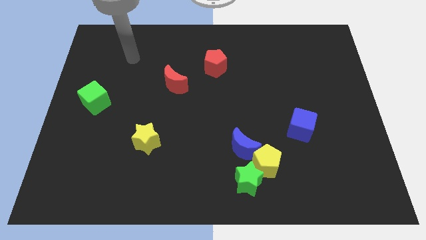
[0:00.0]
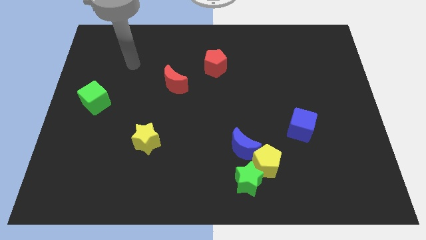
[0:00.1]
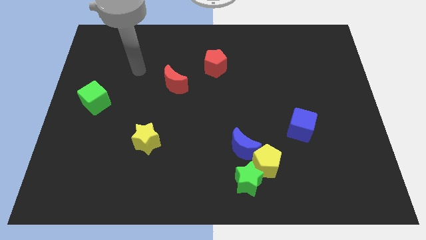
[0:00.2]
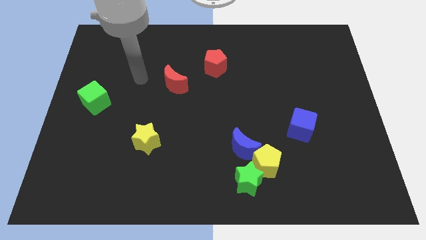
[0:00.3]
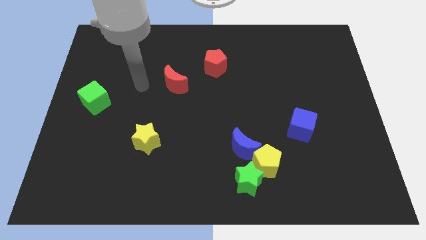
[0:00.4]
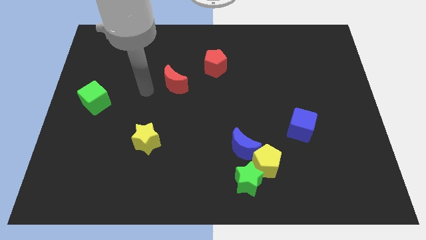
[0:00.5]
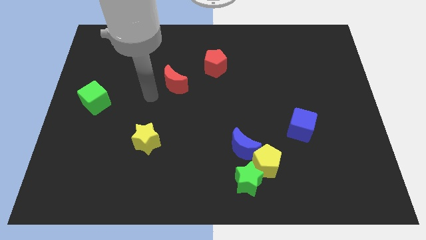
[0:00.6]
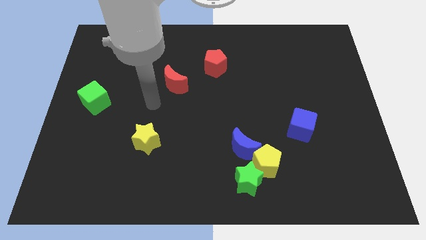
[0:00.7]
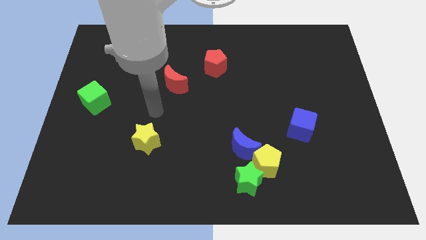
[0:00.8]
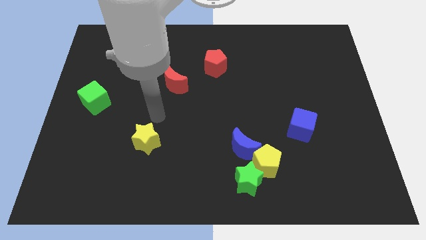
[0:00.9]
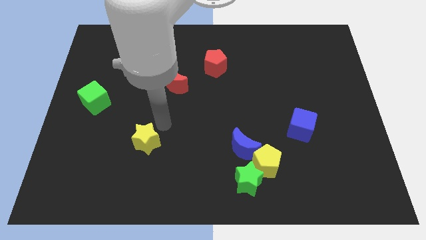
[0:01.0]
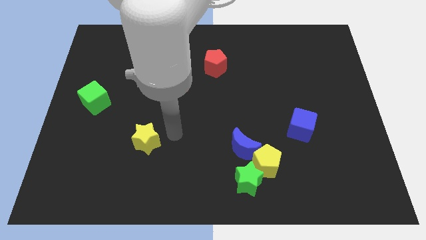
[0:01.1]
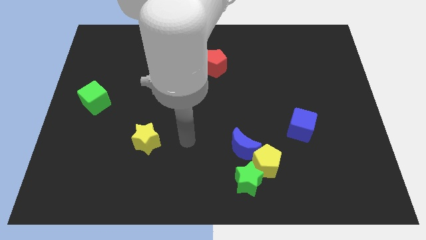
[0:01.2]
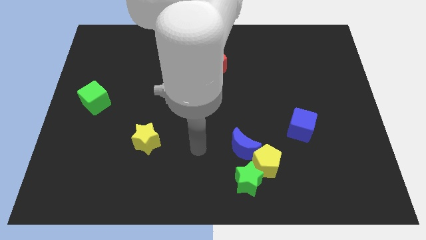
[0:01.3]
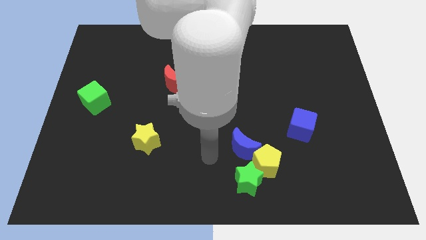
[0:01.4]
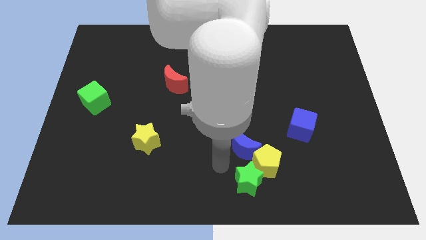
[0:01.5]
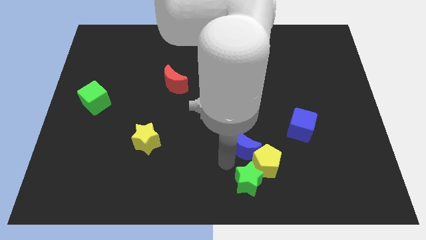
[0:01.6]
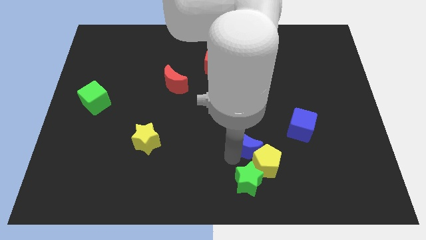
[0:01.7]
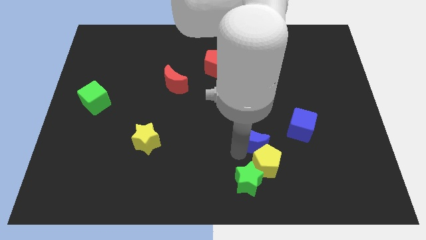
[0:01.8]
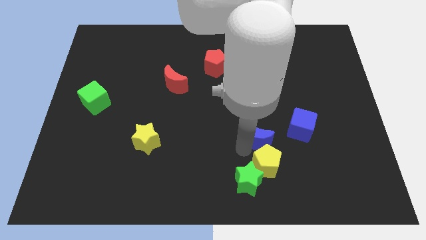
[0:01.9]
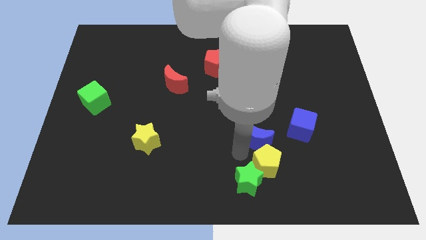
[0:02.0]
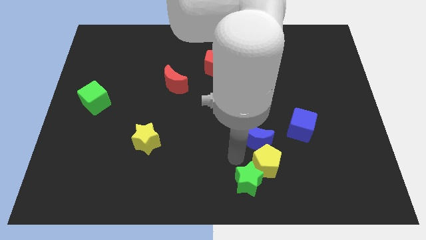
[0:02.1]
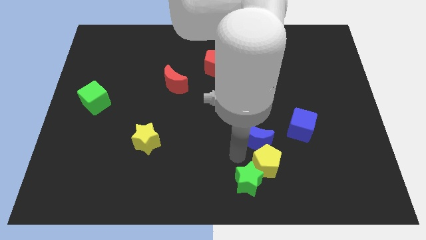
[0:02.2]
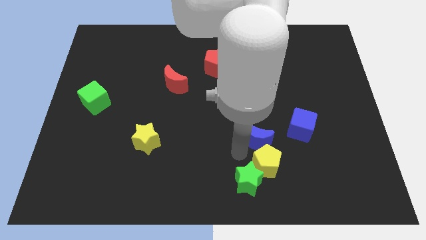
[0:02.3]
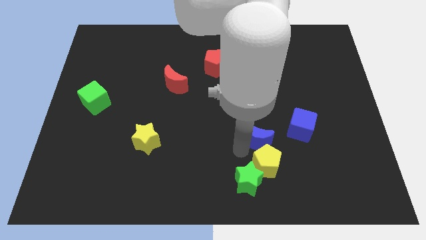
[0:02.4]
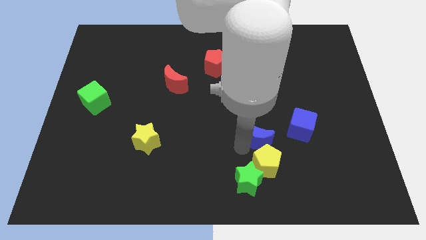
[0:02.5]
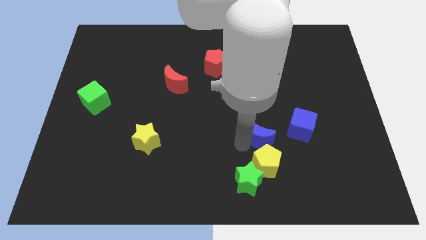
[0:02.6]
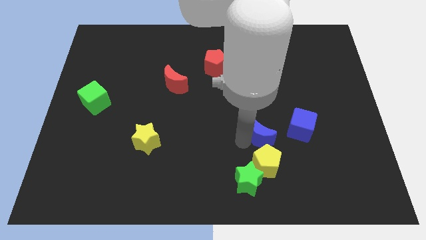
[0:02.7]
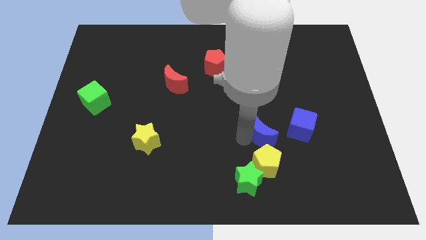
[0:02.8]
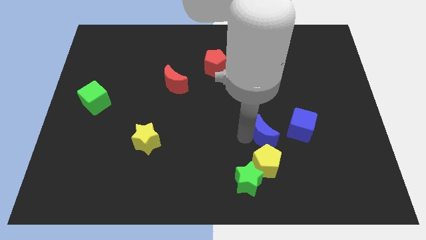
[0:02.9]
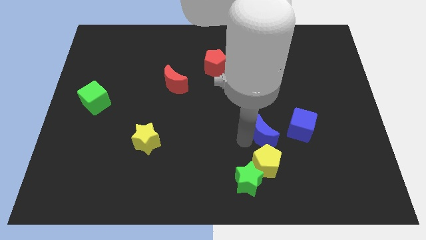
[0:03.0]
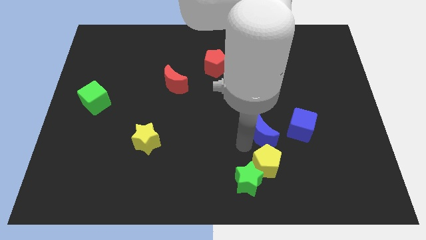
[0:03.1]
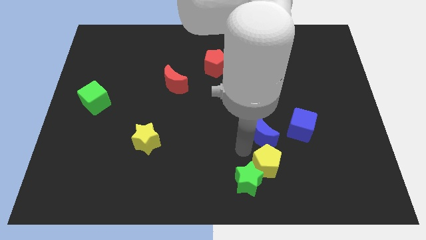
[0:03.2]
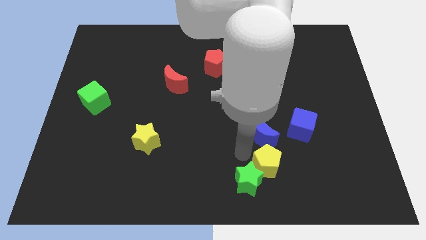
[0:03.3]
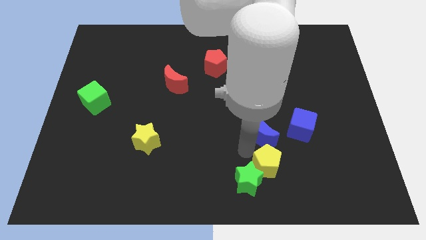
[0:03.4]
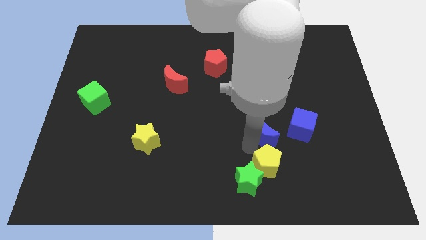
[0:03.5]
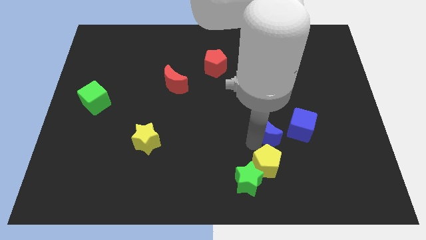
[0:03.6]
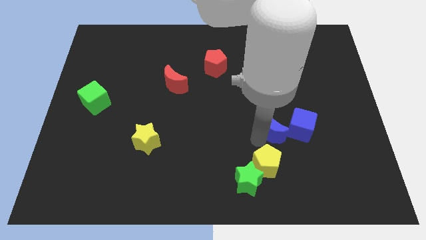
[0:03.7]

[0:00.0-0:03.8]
slide the blue moon diagonally upwards and right a bit

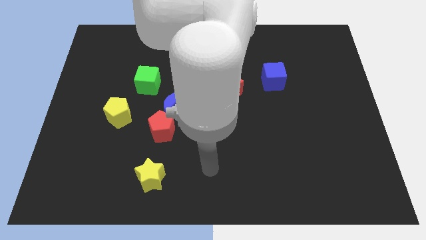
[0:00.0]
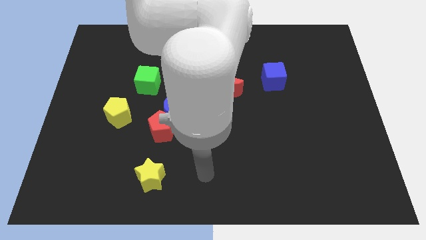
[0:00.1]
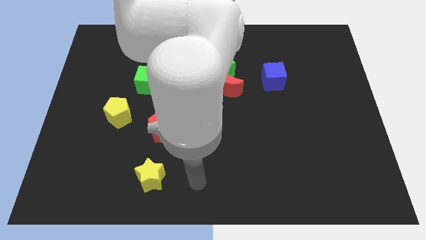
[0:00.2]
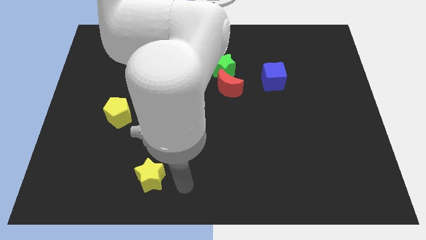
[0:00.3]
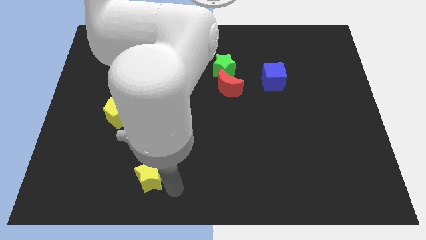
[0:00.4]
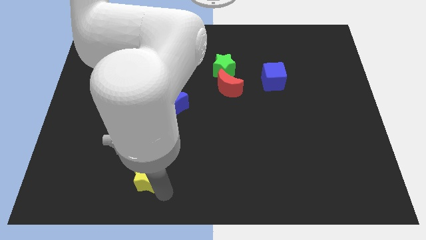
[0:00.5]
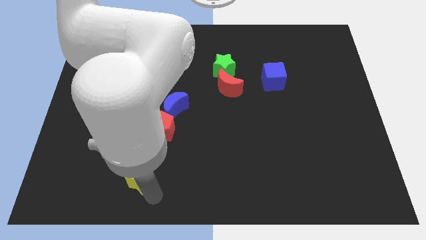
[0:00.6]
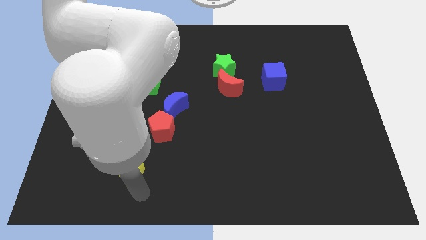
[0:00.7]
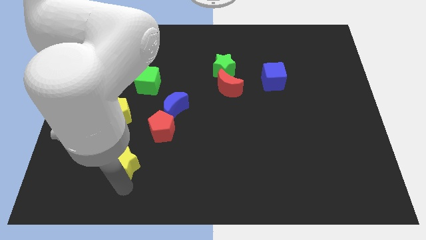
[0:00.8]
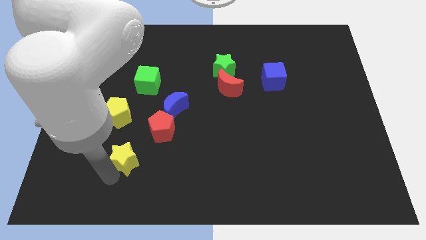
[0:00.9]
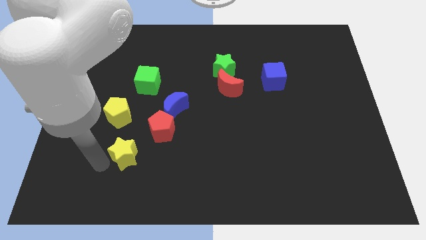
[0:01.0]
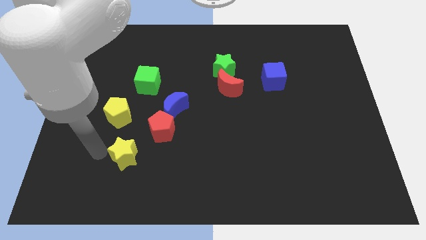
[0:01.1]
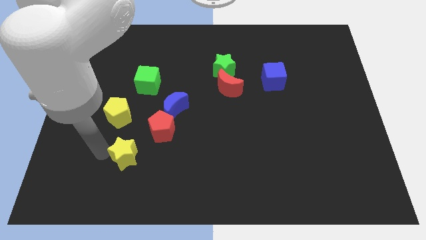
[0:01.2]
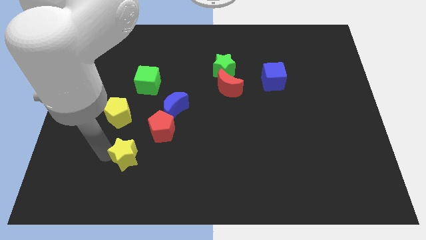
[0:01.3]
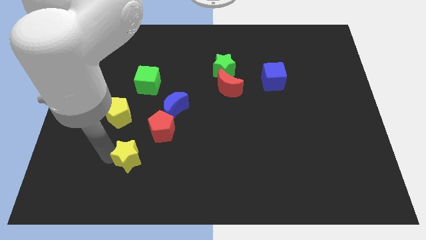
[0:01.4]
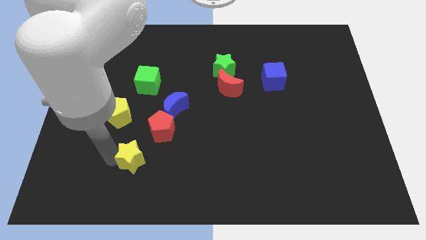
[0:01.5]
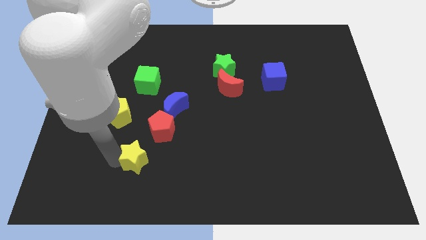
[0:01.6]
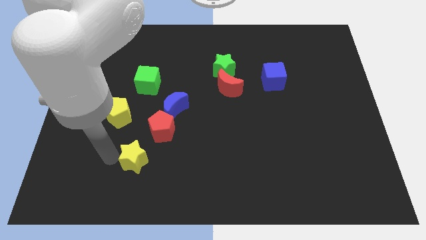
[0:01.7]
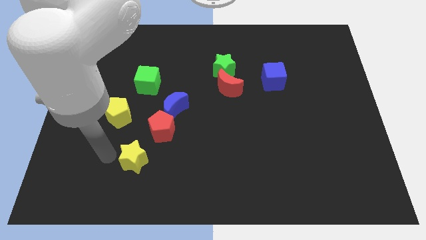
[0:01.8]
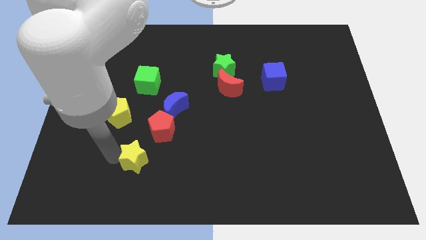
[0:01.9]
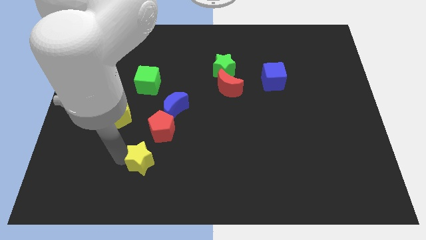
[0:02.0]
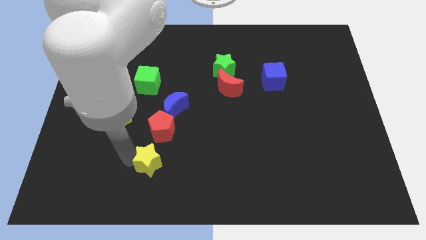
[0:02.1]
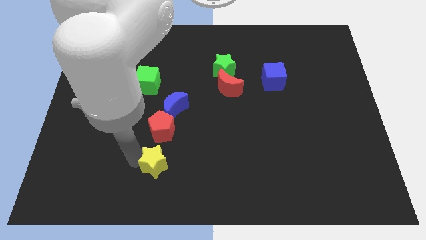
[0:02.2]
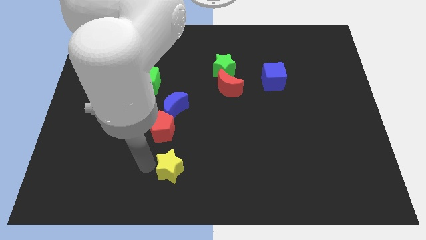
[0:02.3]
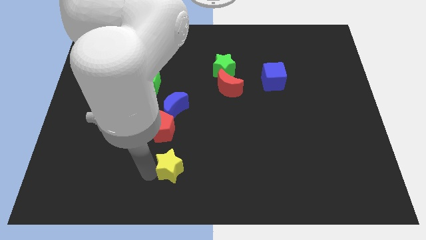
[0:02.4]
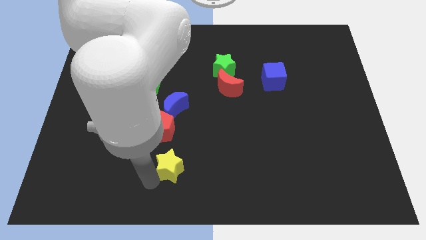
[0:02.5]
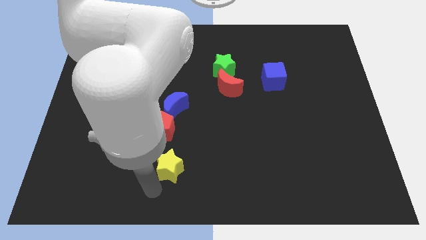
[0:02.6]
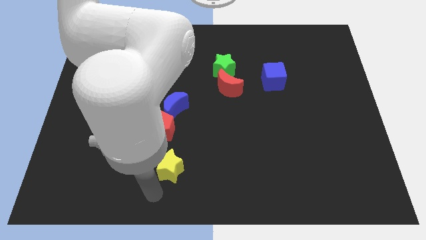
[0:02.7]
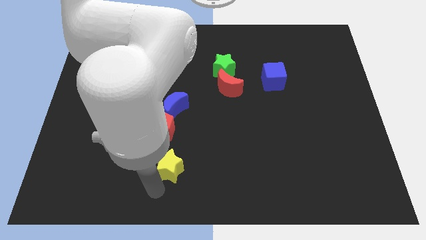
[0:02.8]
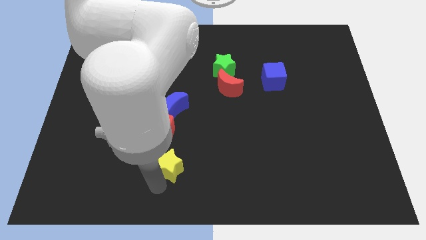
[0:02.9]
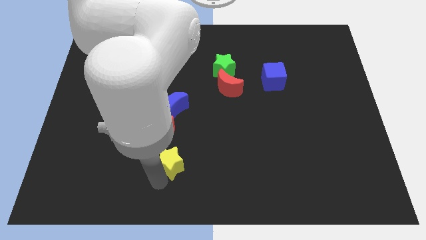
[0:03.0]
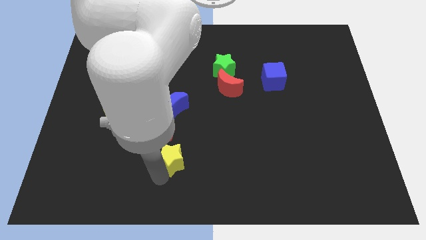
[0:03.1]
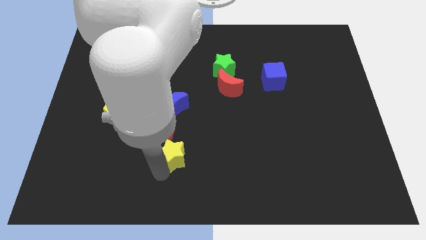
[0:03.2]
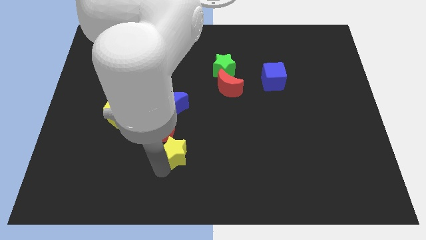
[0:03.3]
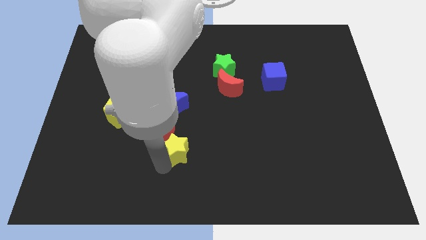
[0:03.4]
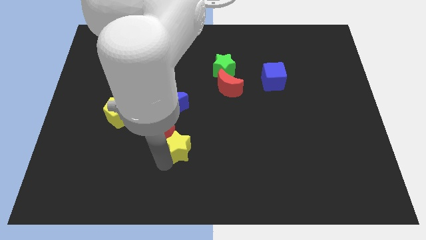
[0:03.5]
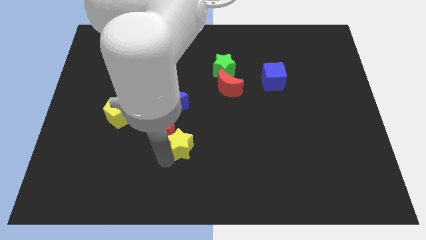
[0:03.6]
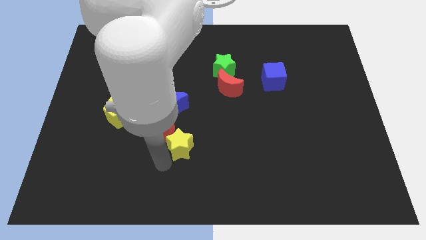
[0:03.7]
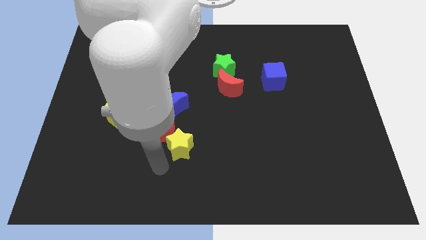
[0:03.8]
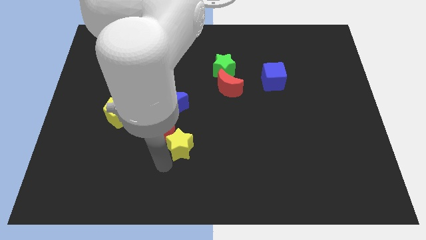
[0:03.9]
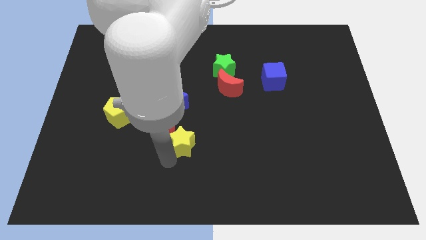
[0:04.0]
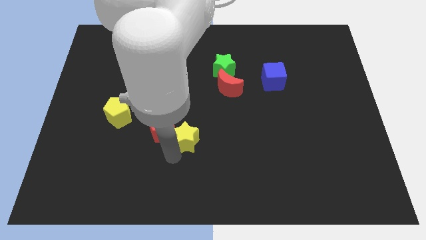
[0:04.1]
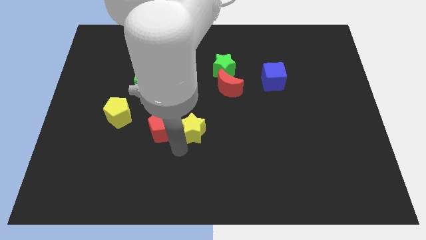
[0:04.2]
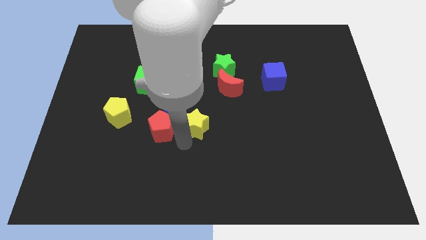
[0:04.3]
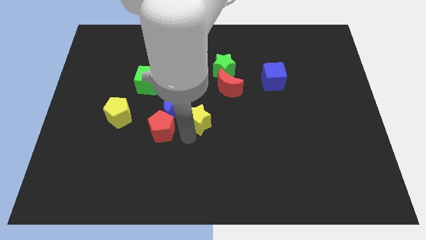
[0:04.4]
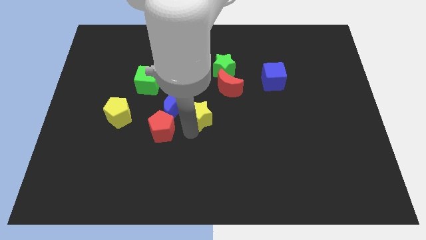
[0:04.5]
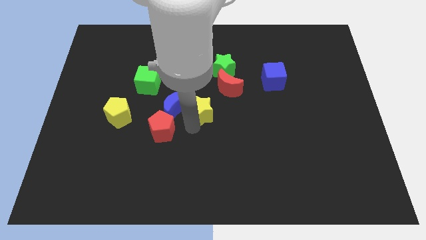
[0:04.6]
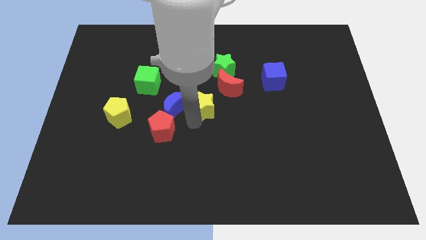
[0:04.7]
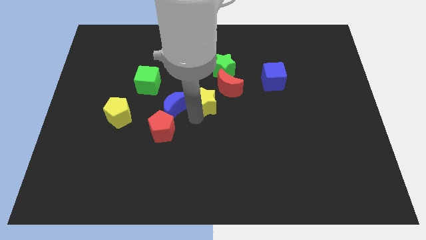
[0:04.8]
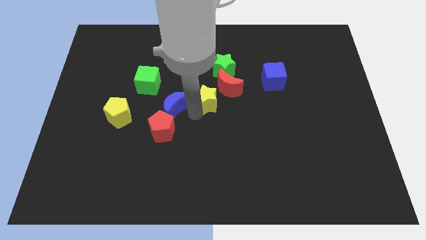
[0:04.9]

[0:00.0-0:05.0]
slide the yellow star up and then to the right
